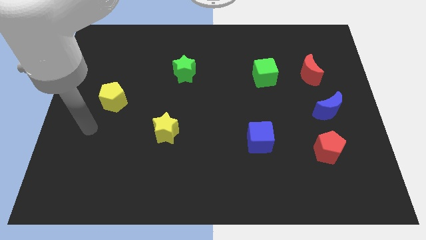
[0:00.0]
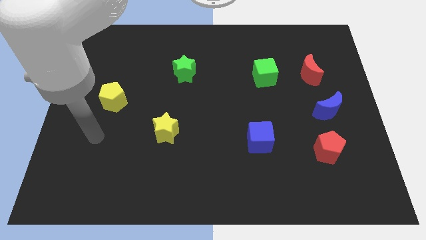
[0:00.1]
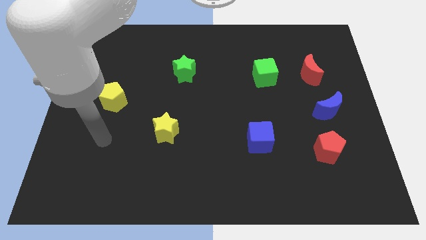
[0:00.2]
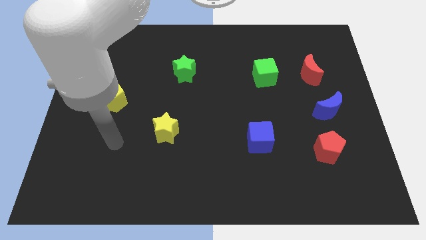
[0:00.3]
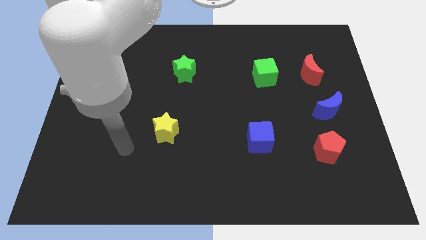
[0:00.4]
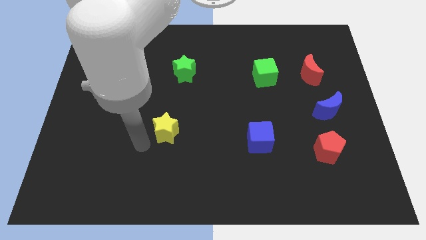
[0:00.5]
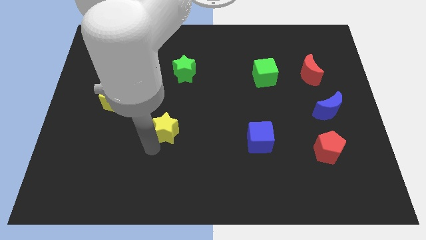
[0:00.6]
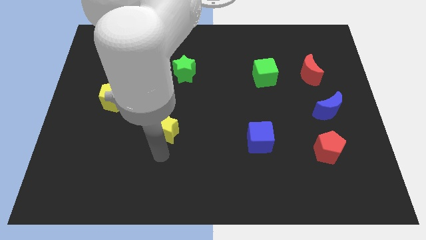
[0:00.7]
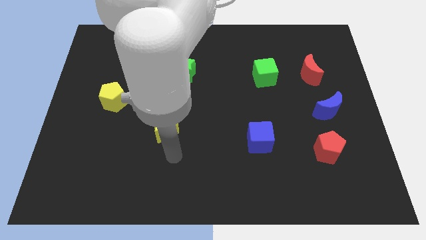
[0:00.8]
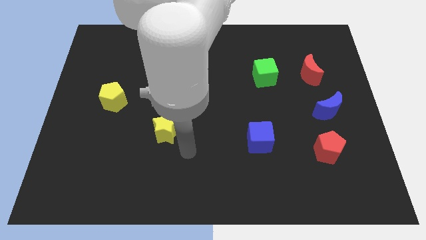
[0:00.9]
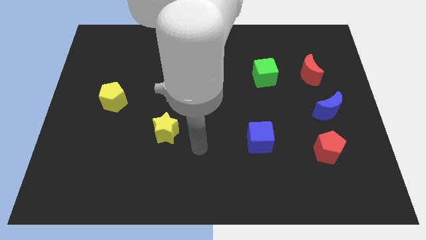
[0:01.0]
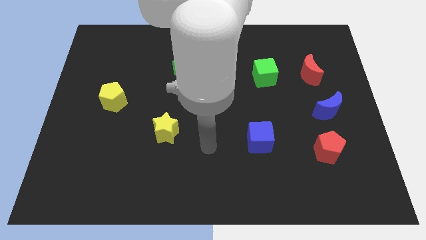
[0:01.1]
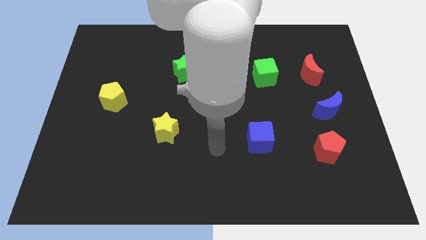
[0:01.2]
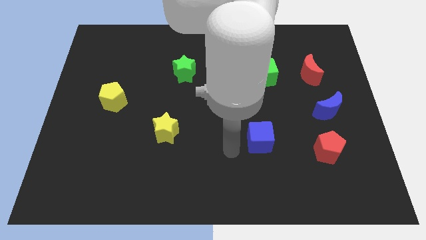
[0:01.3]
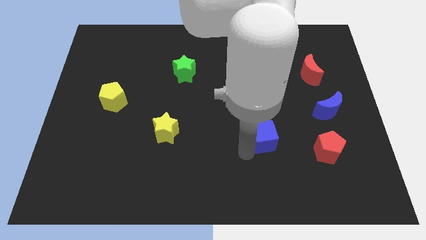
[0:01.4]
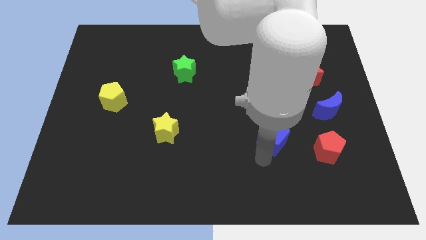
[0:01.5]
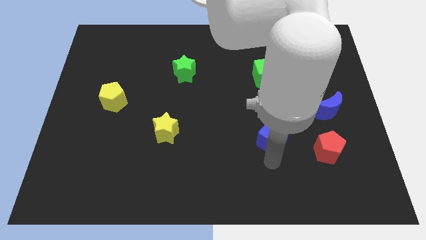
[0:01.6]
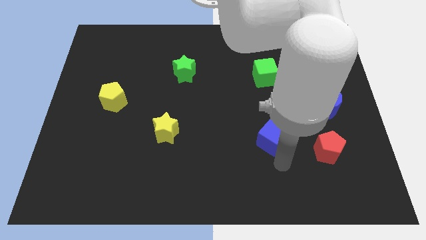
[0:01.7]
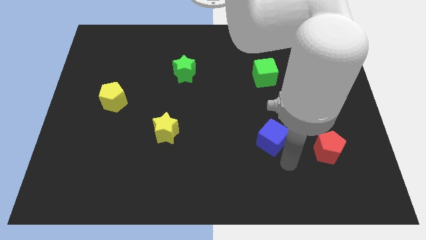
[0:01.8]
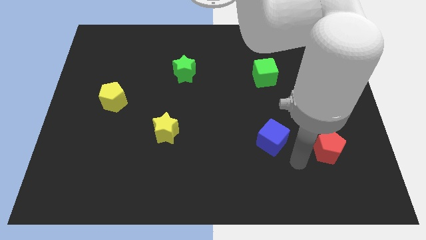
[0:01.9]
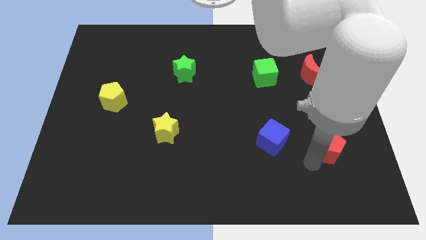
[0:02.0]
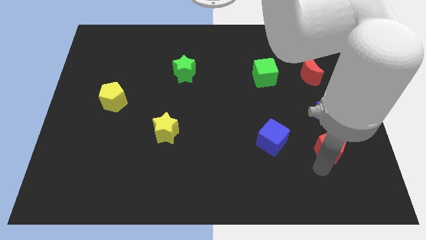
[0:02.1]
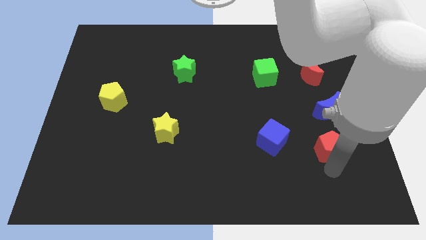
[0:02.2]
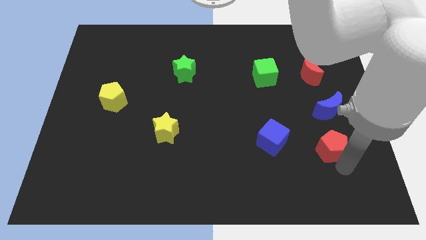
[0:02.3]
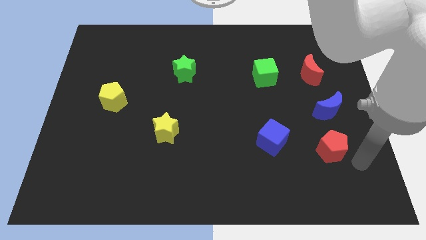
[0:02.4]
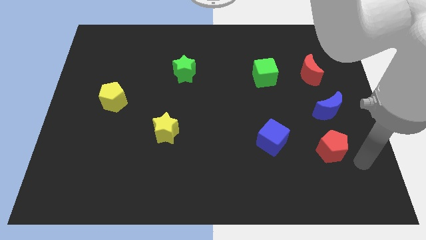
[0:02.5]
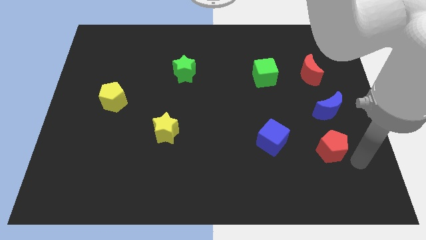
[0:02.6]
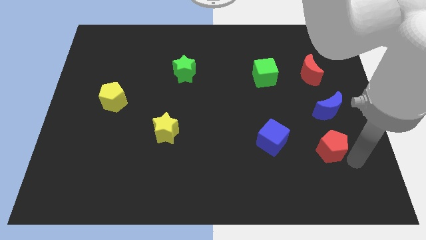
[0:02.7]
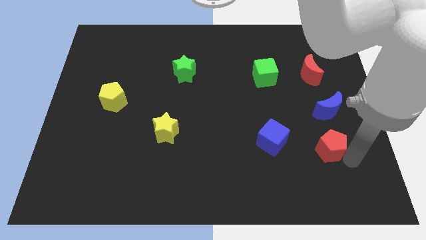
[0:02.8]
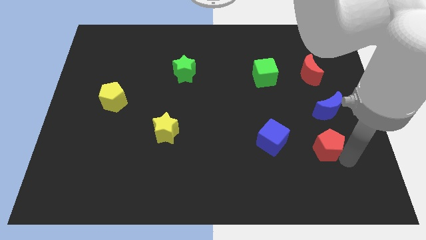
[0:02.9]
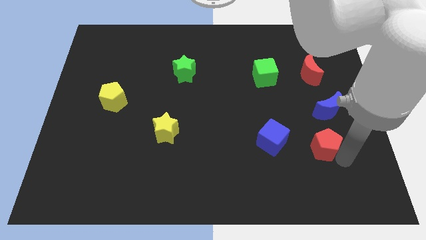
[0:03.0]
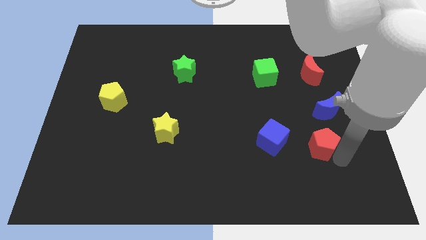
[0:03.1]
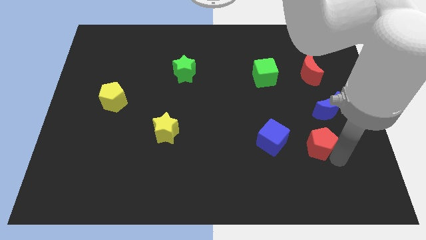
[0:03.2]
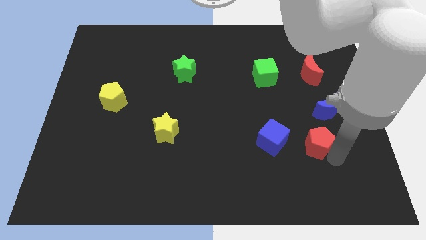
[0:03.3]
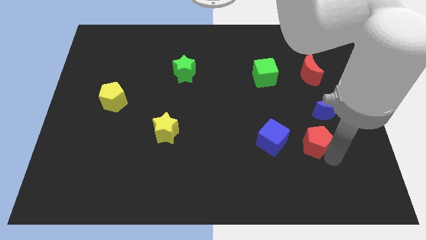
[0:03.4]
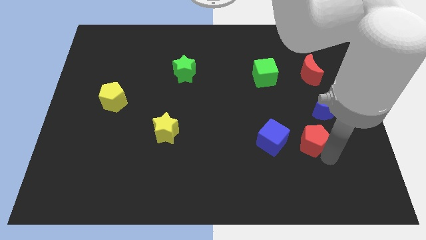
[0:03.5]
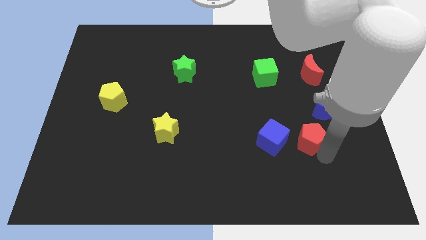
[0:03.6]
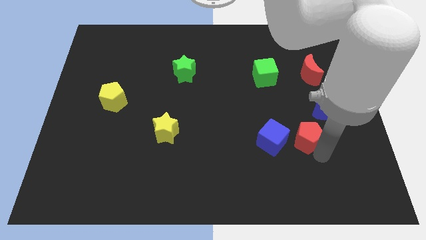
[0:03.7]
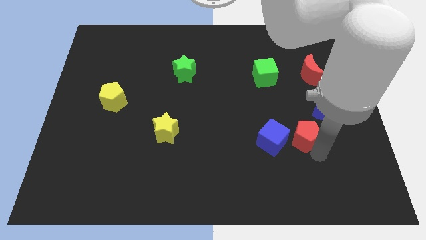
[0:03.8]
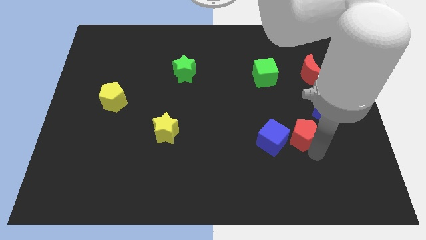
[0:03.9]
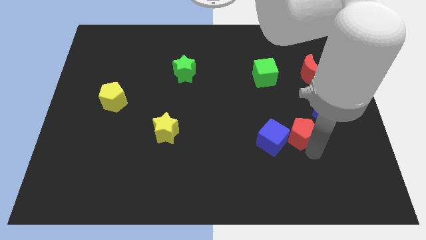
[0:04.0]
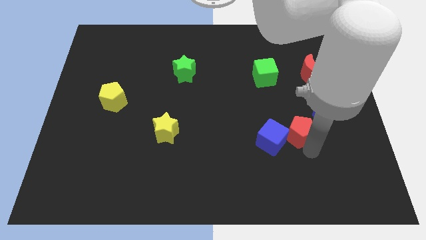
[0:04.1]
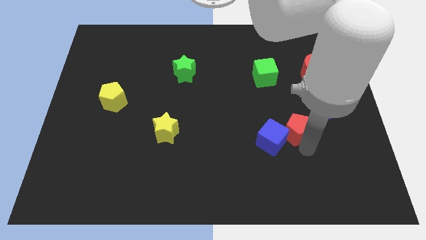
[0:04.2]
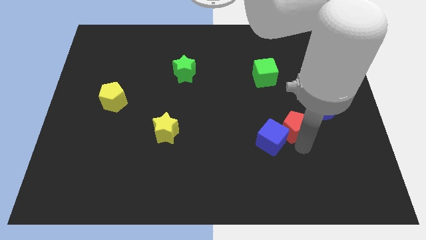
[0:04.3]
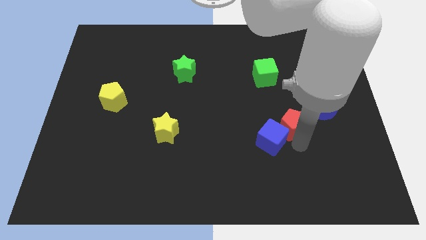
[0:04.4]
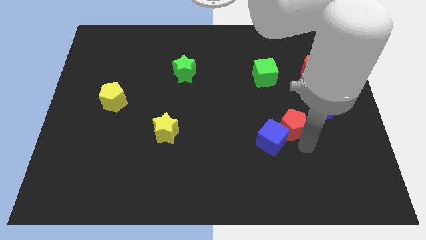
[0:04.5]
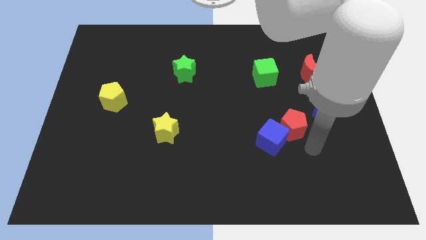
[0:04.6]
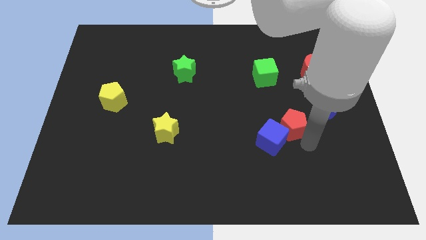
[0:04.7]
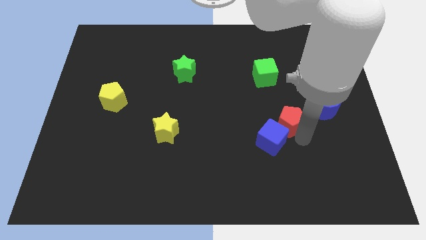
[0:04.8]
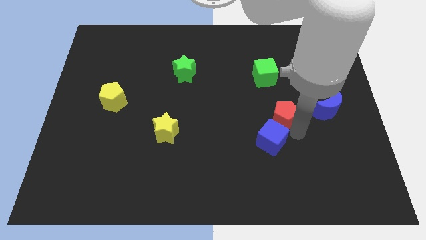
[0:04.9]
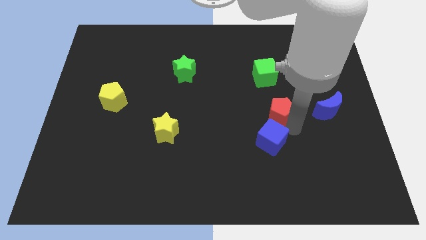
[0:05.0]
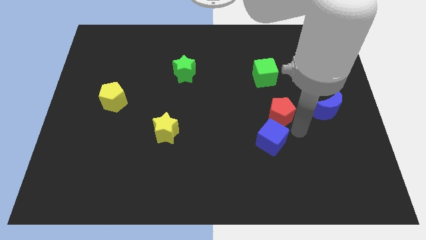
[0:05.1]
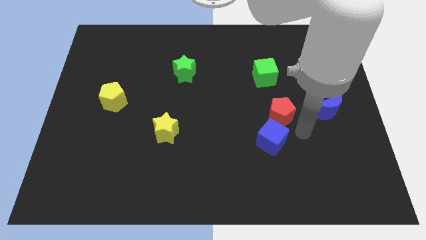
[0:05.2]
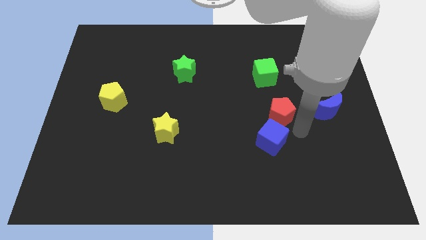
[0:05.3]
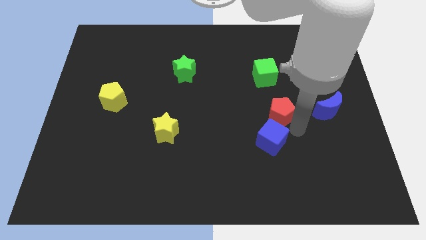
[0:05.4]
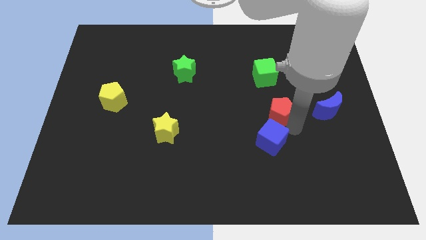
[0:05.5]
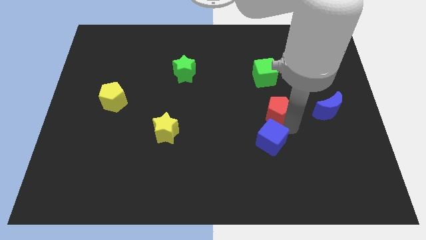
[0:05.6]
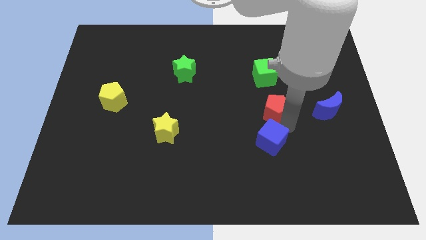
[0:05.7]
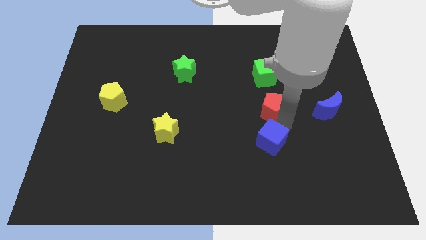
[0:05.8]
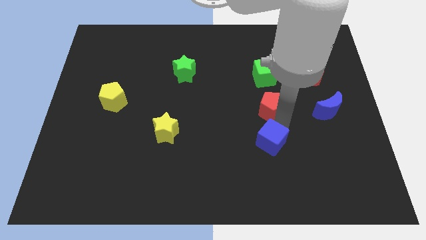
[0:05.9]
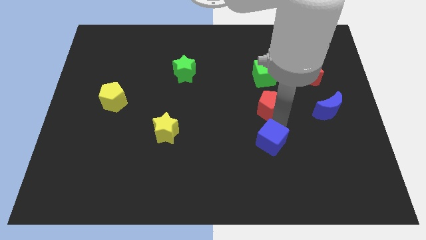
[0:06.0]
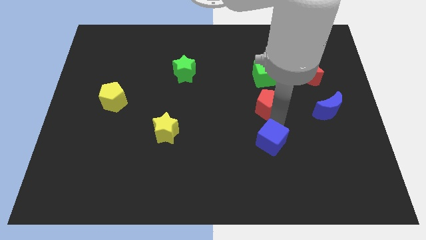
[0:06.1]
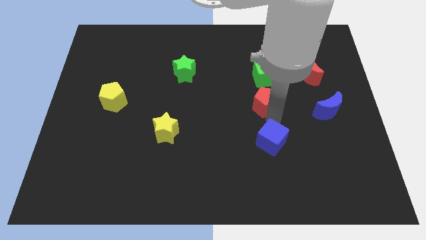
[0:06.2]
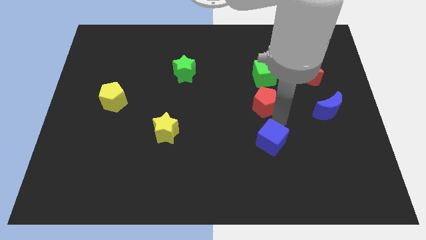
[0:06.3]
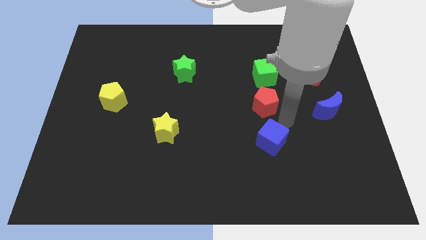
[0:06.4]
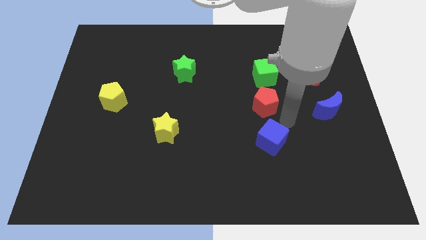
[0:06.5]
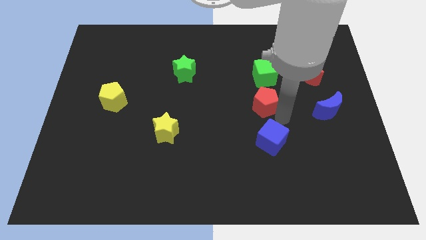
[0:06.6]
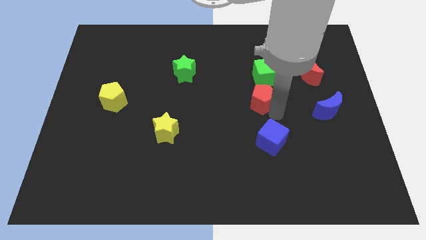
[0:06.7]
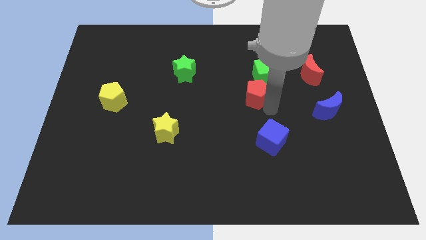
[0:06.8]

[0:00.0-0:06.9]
slide the red pentagon up and to the left diagonally

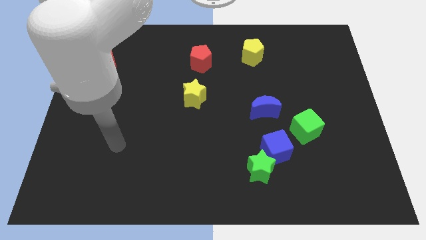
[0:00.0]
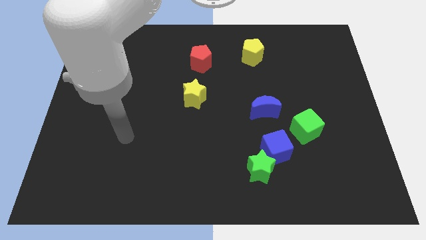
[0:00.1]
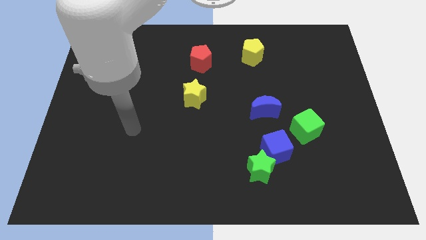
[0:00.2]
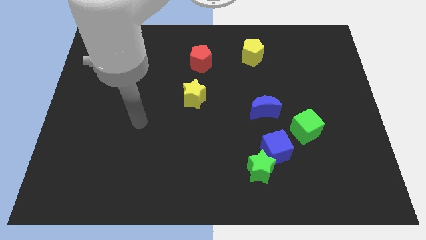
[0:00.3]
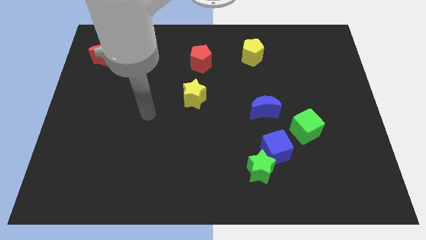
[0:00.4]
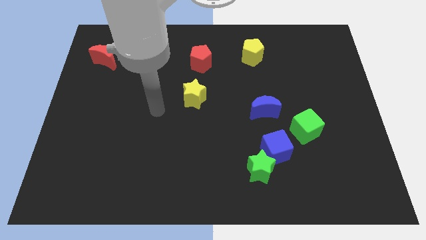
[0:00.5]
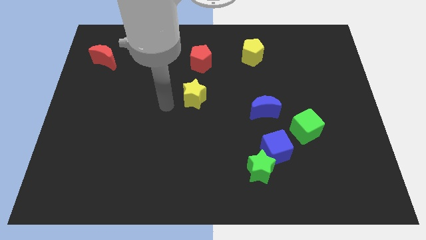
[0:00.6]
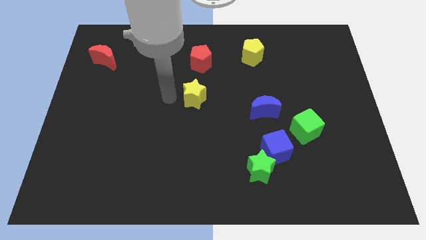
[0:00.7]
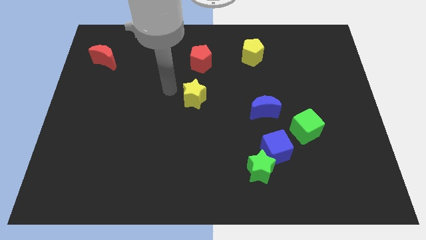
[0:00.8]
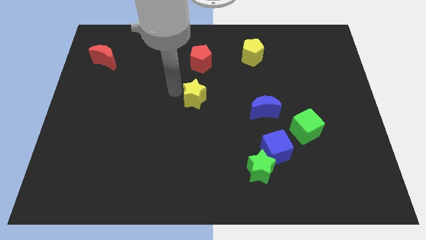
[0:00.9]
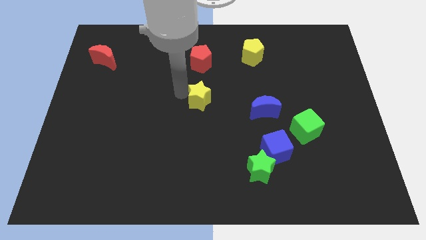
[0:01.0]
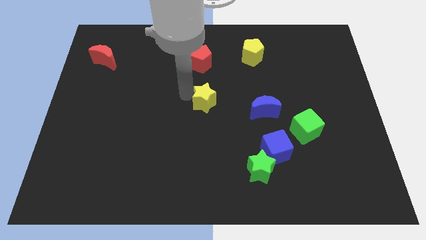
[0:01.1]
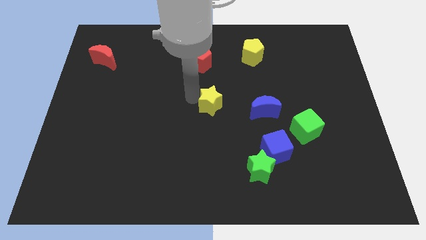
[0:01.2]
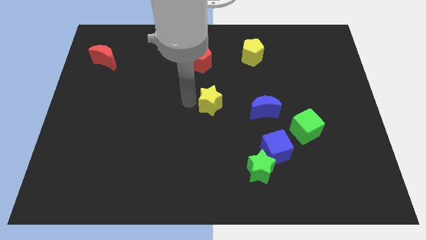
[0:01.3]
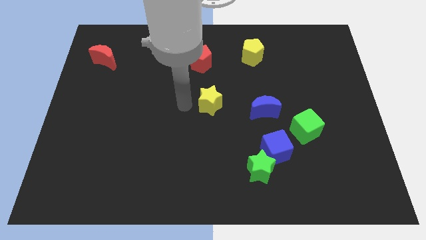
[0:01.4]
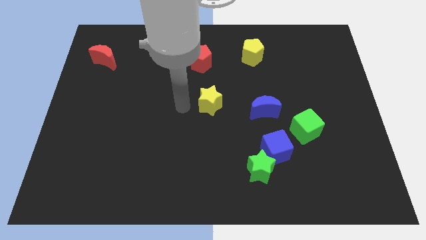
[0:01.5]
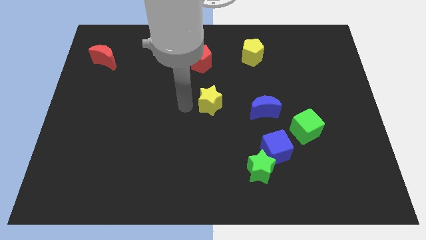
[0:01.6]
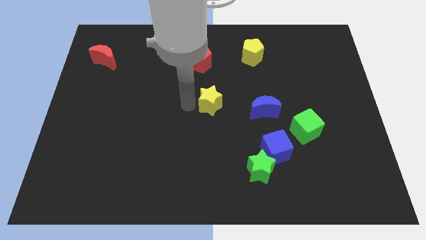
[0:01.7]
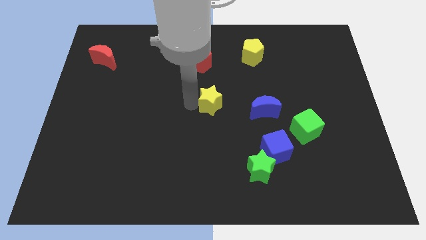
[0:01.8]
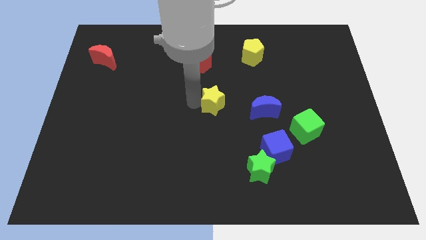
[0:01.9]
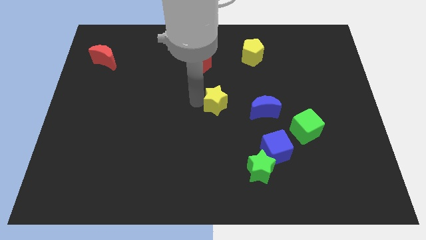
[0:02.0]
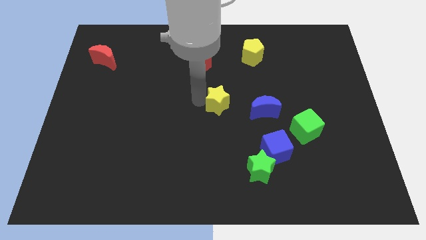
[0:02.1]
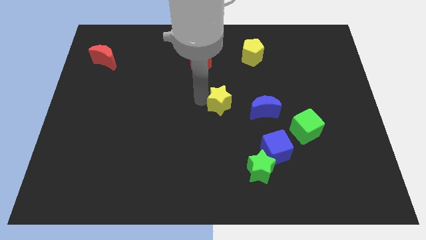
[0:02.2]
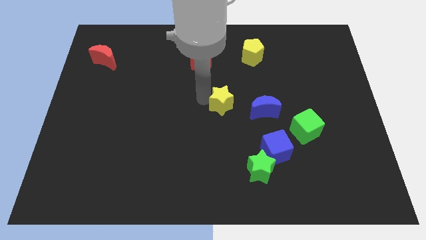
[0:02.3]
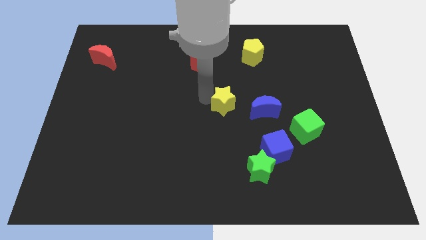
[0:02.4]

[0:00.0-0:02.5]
move the yellow star right a little bit
